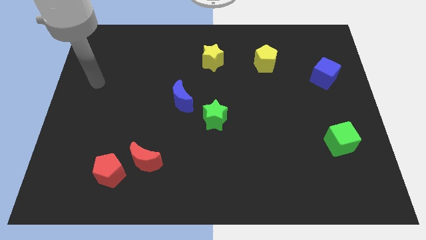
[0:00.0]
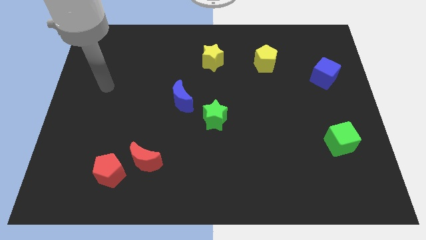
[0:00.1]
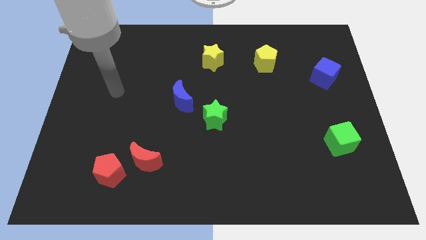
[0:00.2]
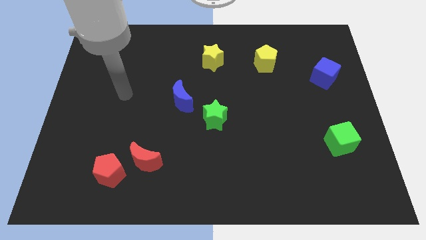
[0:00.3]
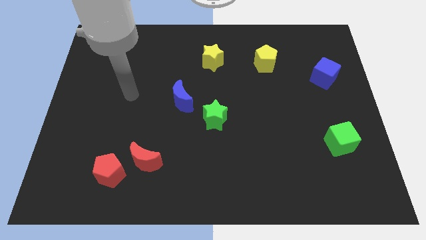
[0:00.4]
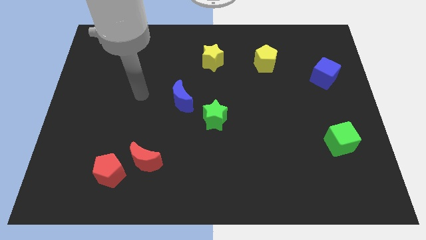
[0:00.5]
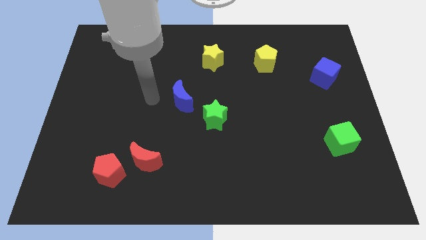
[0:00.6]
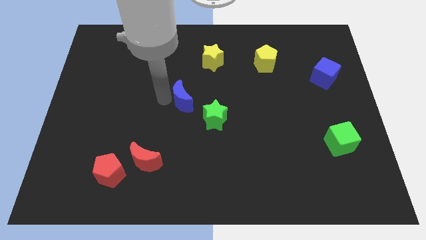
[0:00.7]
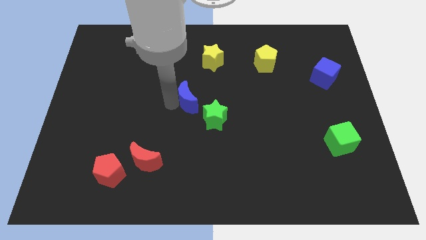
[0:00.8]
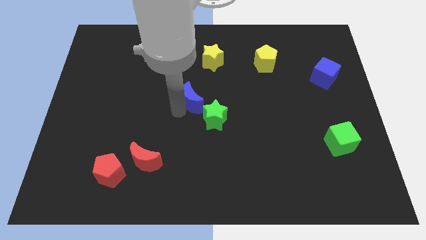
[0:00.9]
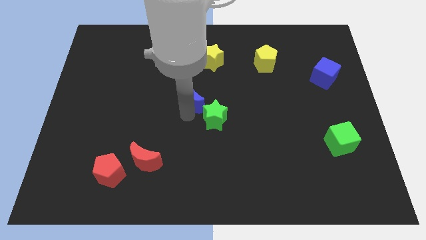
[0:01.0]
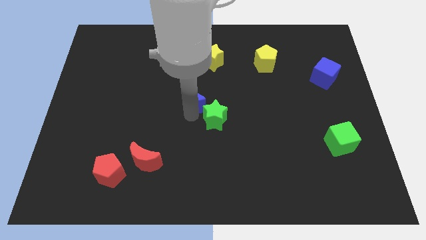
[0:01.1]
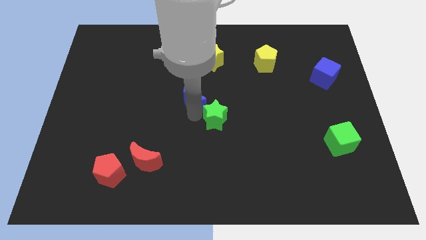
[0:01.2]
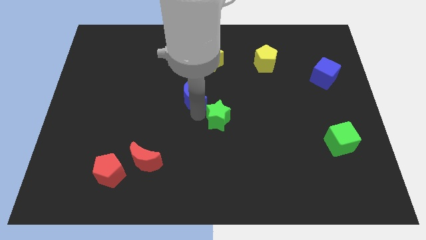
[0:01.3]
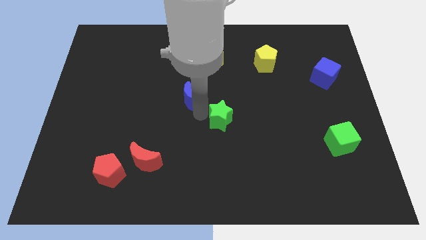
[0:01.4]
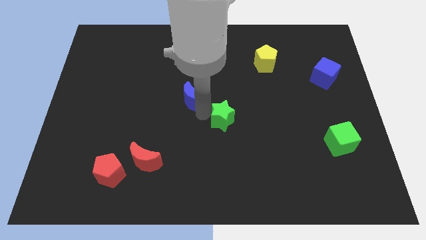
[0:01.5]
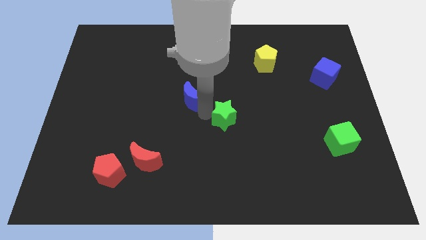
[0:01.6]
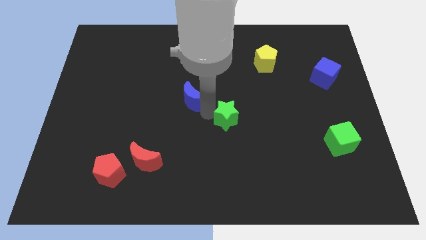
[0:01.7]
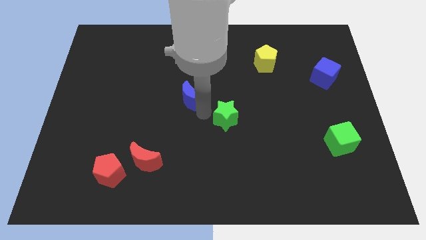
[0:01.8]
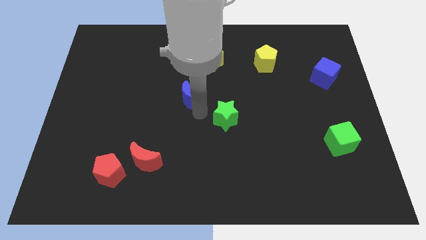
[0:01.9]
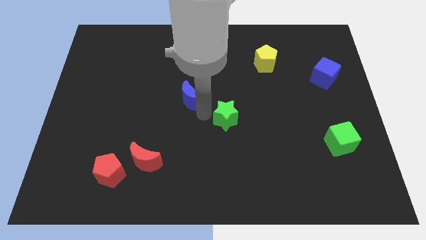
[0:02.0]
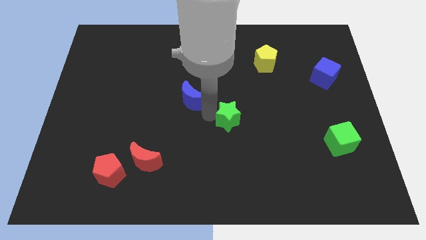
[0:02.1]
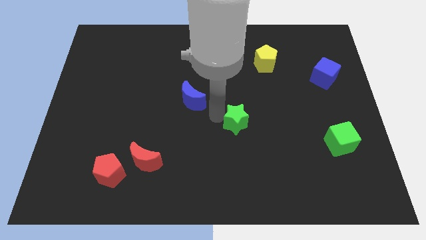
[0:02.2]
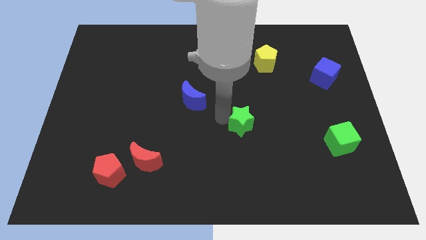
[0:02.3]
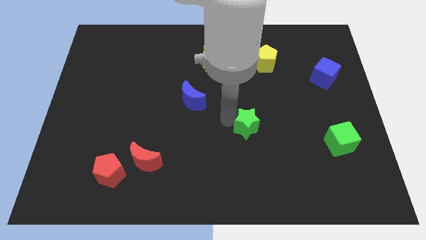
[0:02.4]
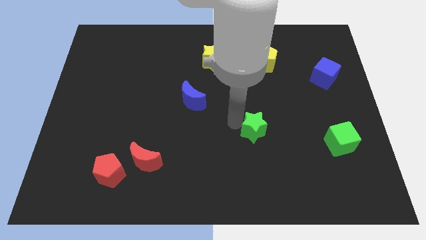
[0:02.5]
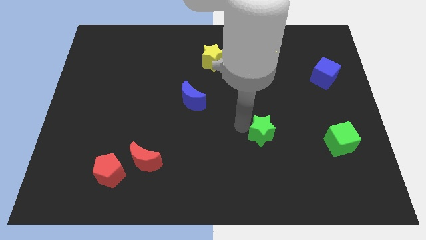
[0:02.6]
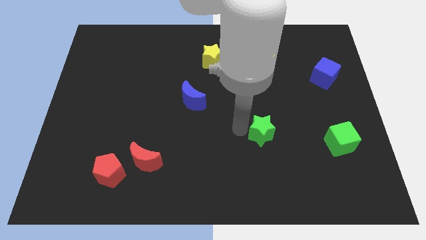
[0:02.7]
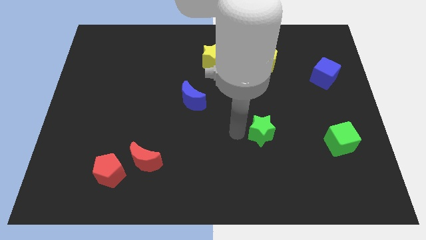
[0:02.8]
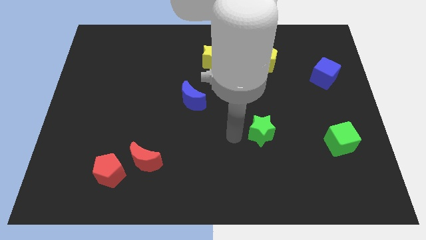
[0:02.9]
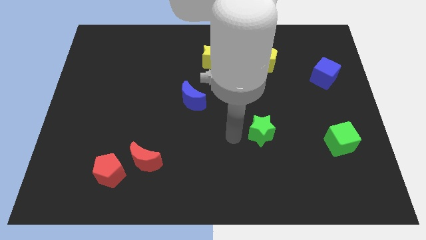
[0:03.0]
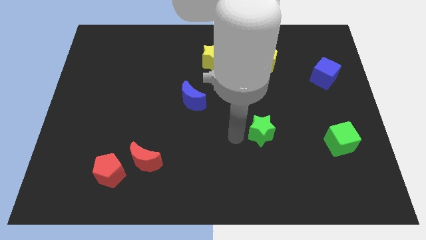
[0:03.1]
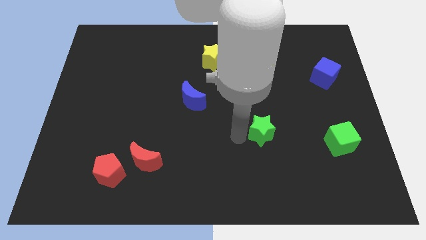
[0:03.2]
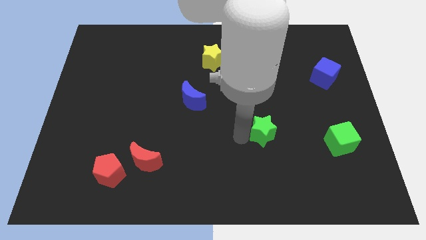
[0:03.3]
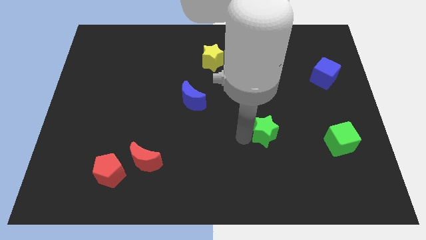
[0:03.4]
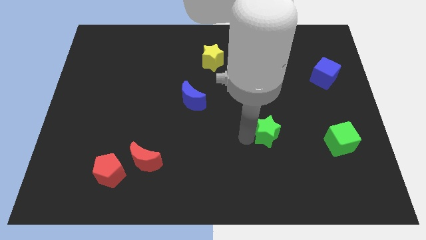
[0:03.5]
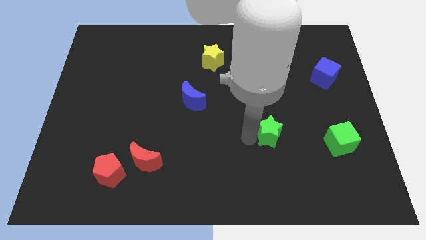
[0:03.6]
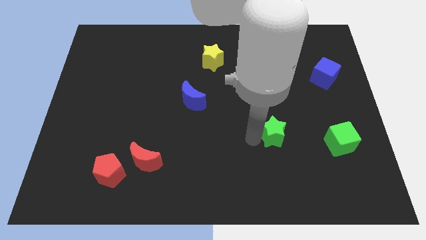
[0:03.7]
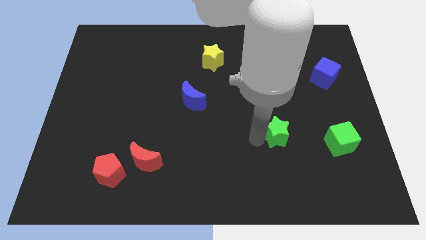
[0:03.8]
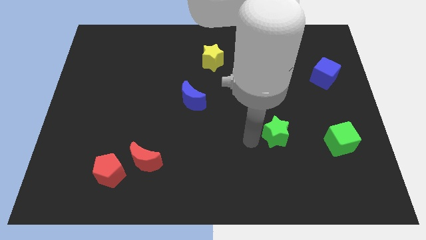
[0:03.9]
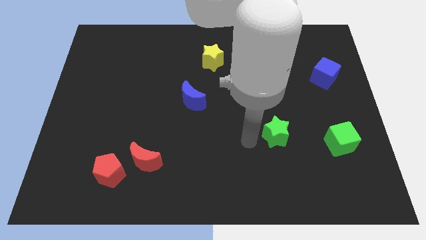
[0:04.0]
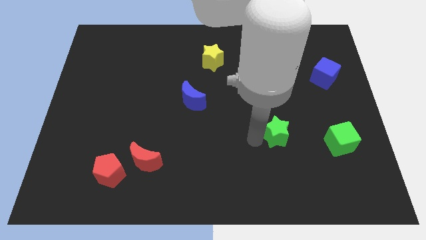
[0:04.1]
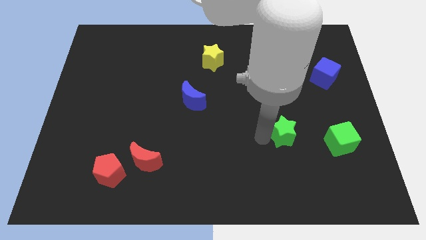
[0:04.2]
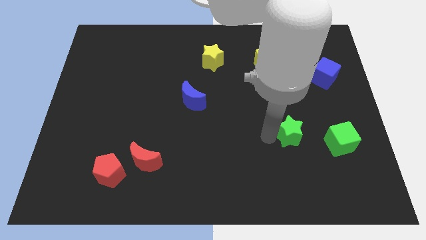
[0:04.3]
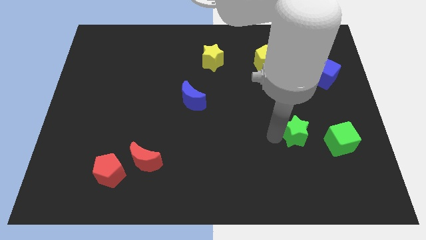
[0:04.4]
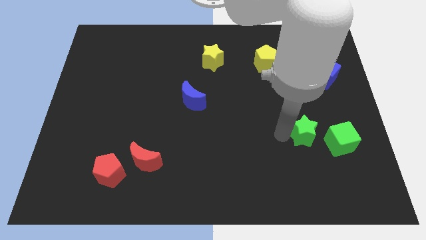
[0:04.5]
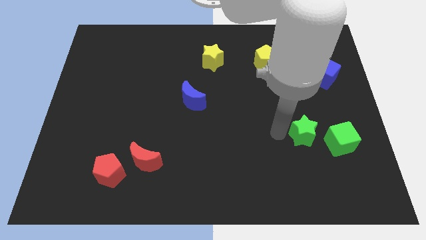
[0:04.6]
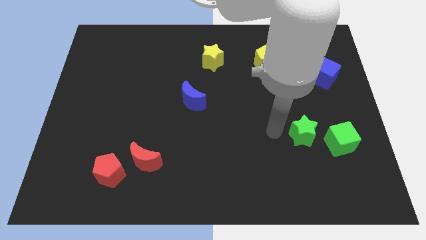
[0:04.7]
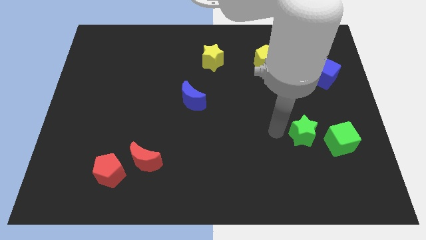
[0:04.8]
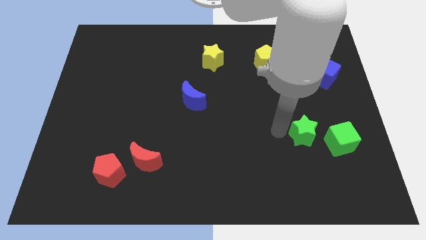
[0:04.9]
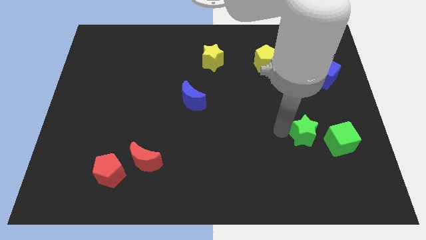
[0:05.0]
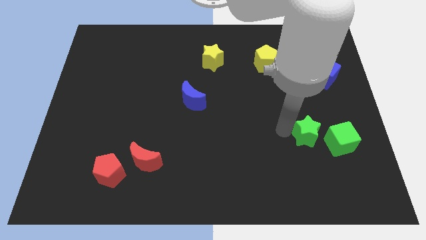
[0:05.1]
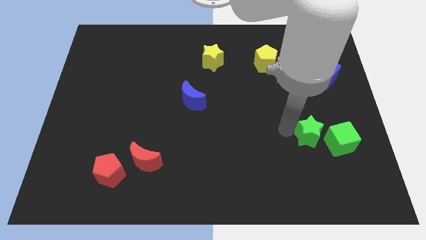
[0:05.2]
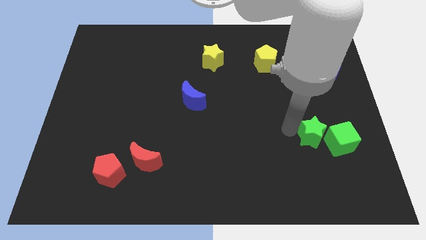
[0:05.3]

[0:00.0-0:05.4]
push the green star next to the green cube

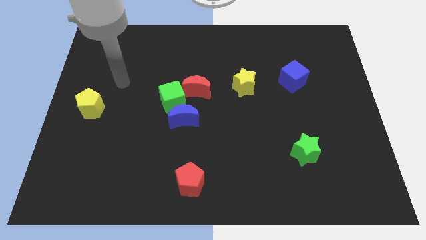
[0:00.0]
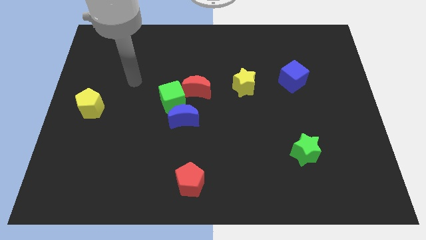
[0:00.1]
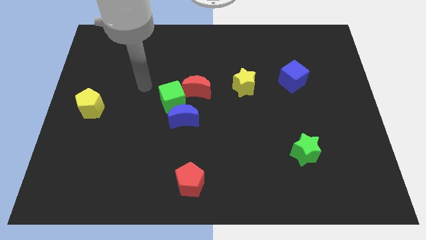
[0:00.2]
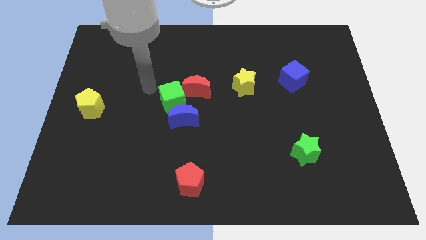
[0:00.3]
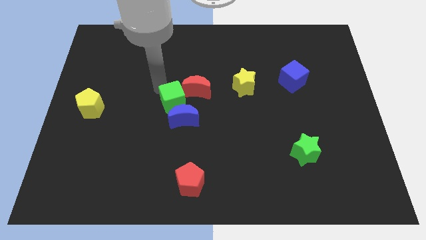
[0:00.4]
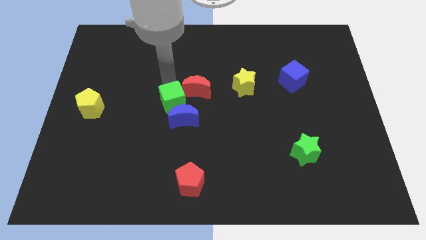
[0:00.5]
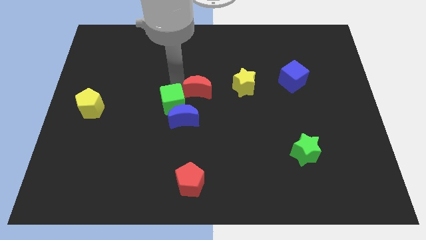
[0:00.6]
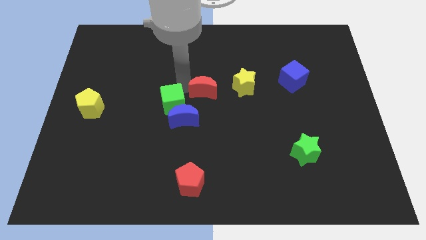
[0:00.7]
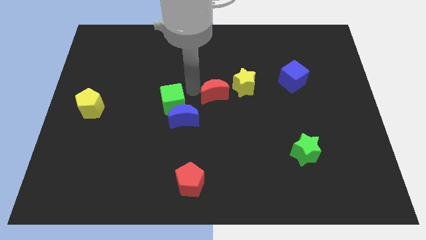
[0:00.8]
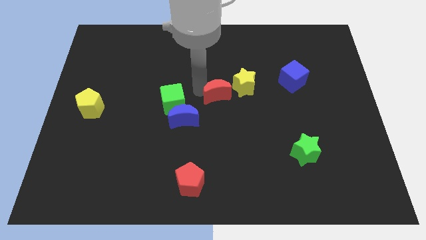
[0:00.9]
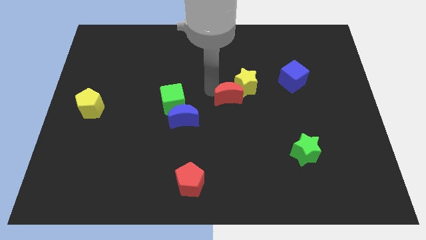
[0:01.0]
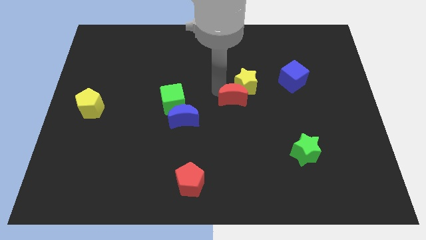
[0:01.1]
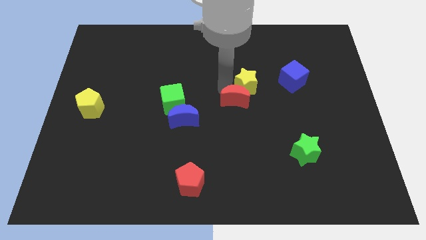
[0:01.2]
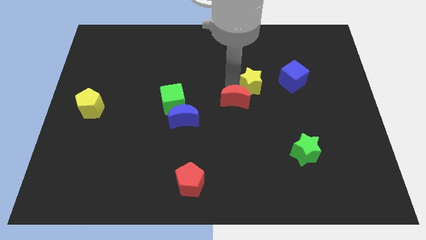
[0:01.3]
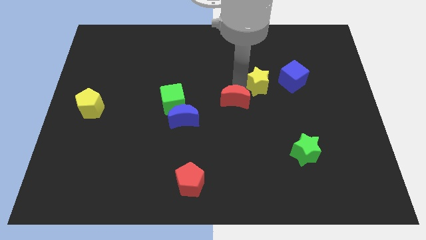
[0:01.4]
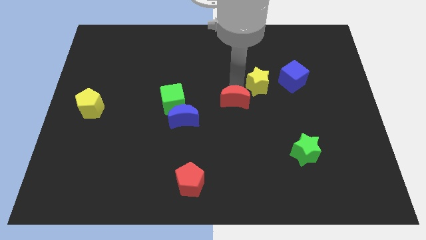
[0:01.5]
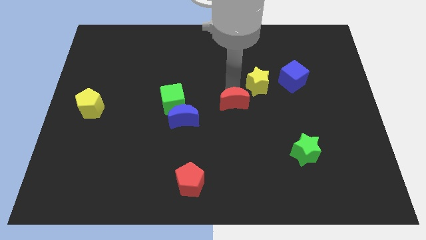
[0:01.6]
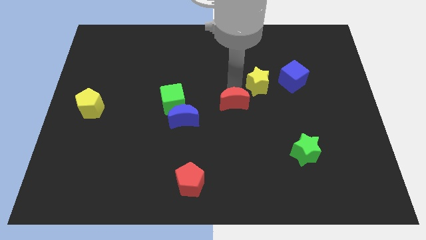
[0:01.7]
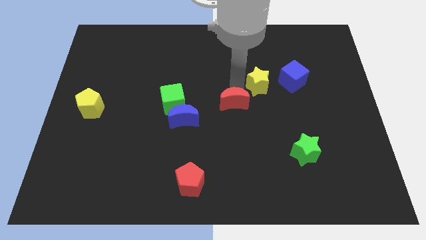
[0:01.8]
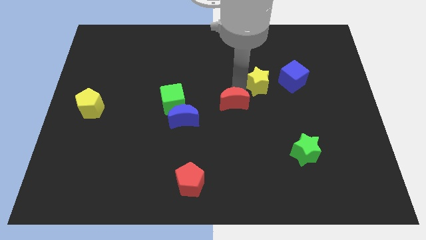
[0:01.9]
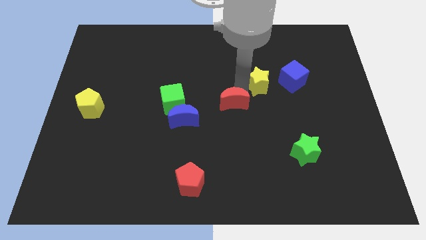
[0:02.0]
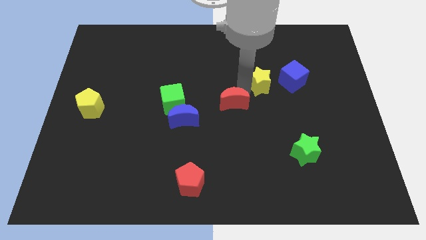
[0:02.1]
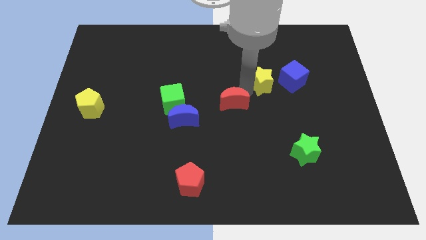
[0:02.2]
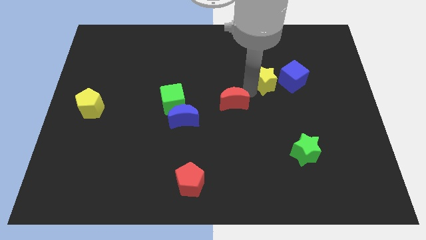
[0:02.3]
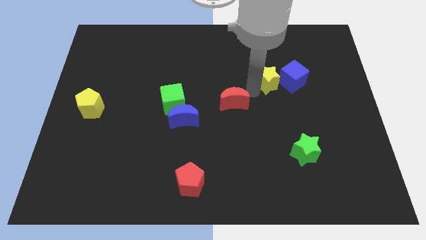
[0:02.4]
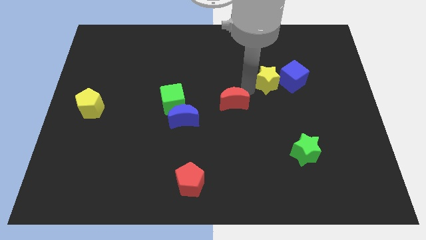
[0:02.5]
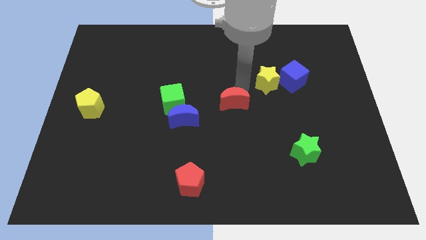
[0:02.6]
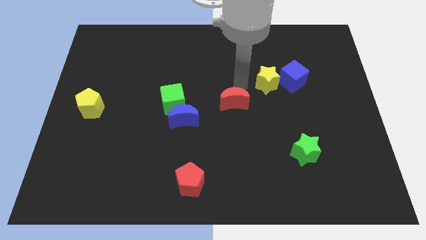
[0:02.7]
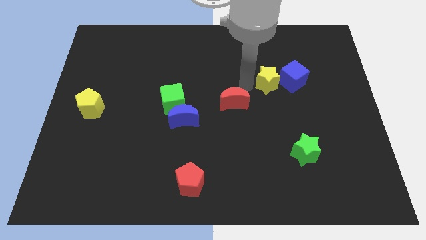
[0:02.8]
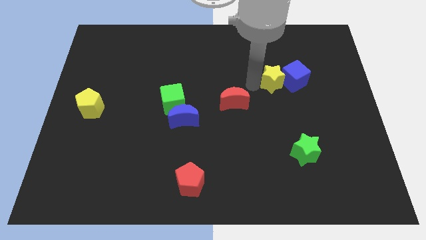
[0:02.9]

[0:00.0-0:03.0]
move the yellow star close to the blue cube
